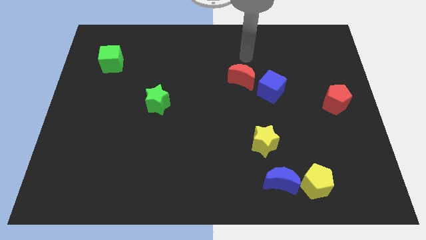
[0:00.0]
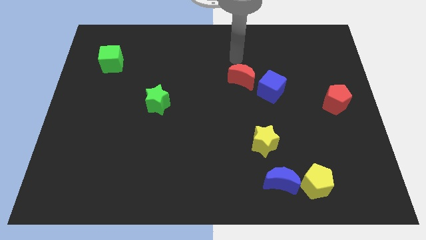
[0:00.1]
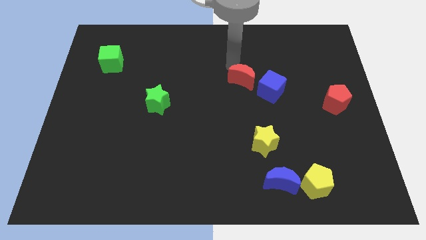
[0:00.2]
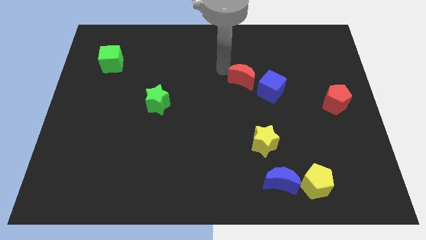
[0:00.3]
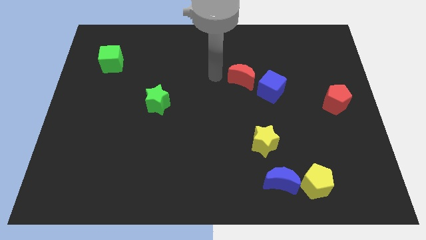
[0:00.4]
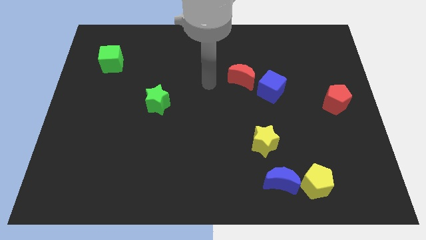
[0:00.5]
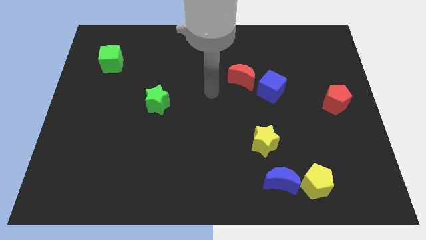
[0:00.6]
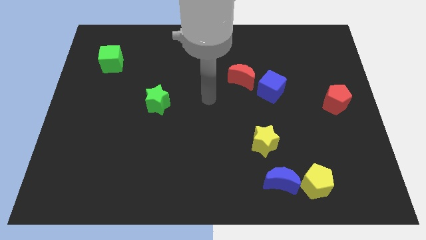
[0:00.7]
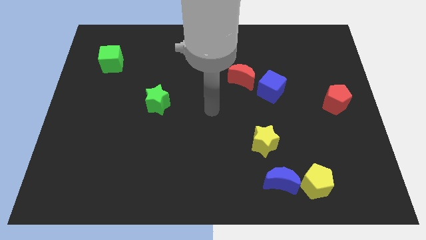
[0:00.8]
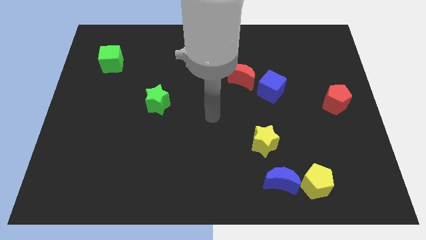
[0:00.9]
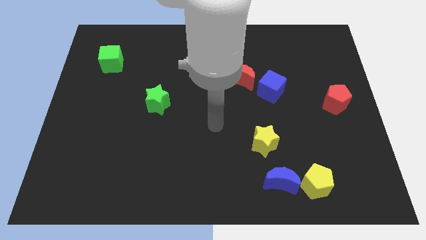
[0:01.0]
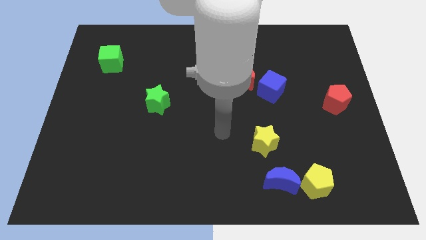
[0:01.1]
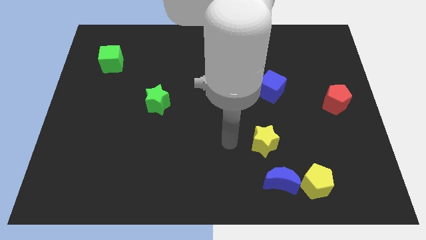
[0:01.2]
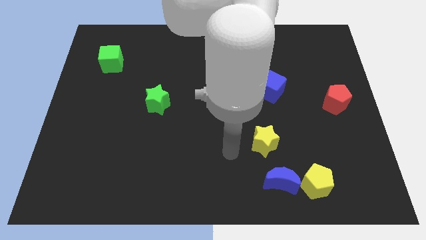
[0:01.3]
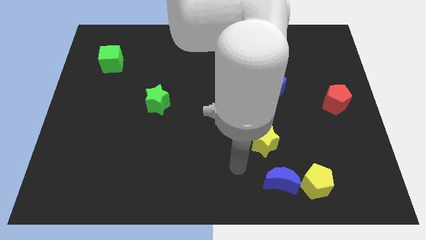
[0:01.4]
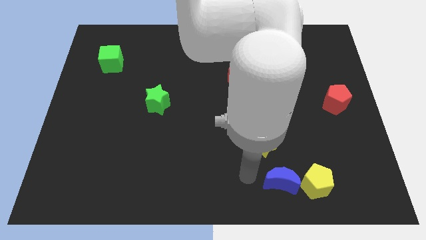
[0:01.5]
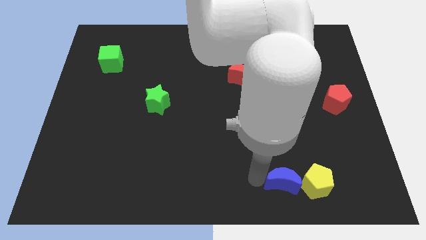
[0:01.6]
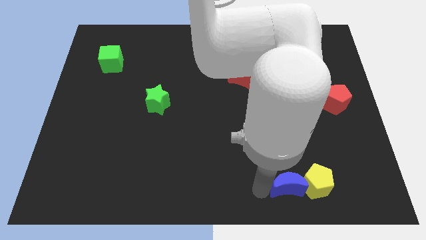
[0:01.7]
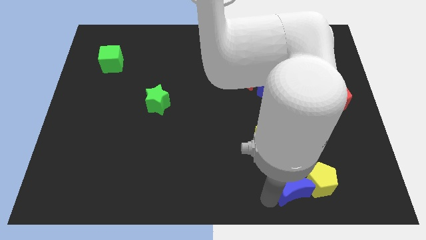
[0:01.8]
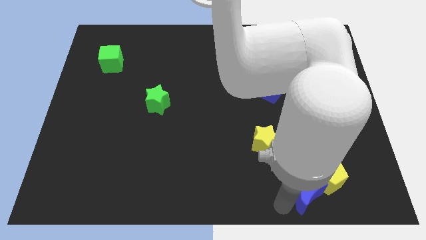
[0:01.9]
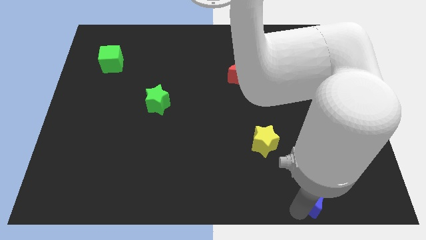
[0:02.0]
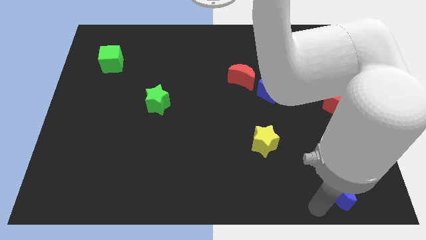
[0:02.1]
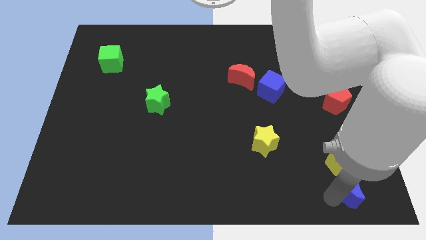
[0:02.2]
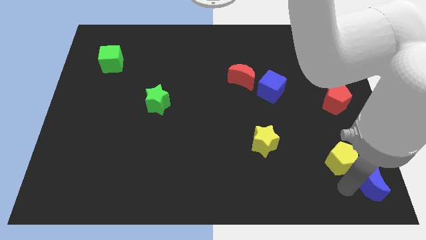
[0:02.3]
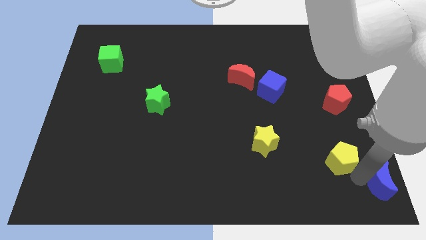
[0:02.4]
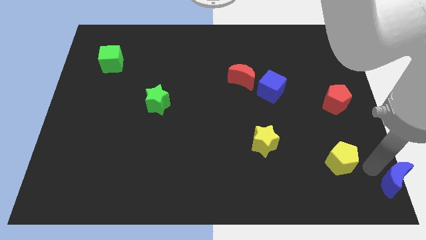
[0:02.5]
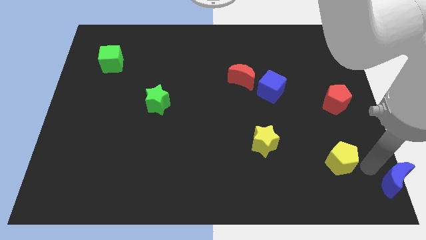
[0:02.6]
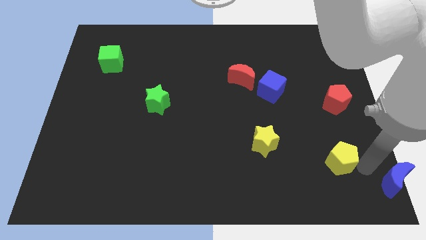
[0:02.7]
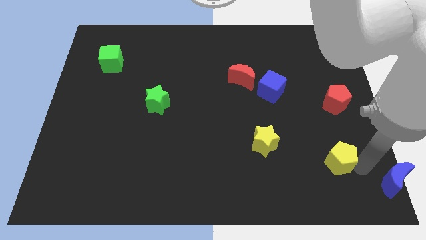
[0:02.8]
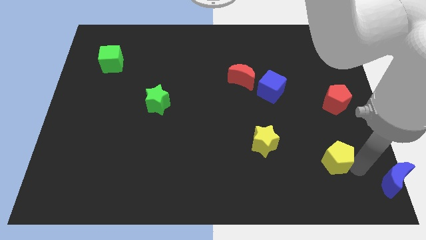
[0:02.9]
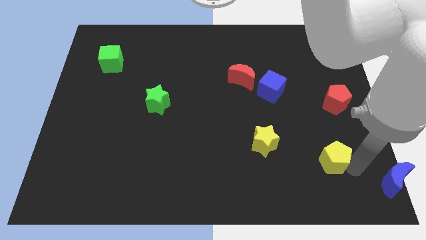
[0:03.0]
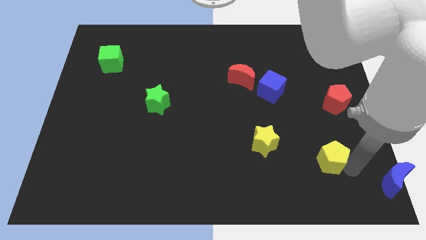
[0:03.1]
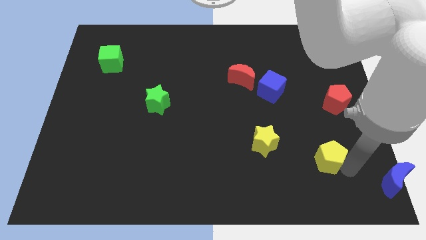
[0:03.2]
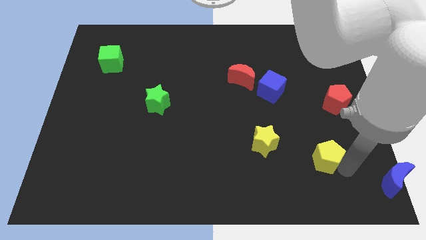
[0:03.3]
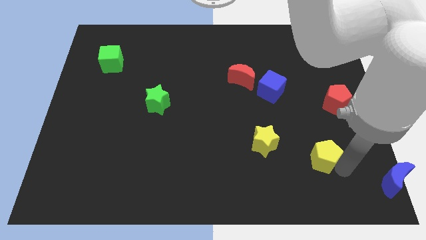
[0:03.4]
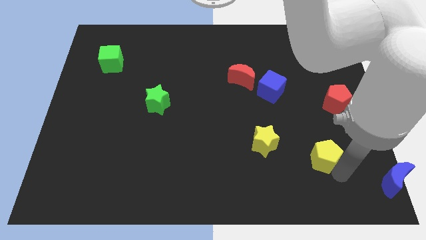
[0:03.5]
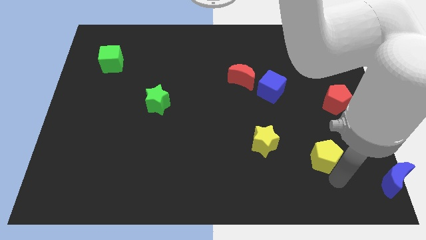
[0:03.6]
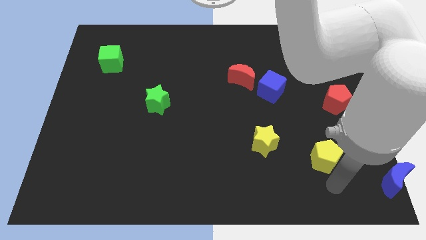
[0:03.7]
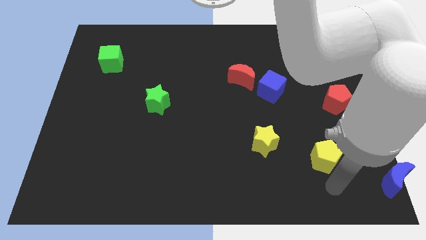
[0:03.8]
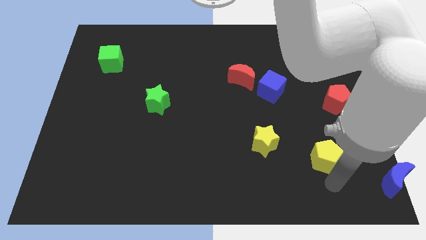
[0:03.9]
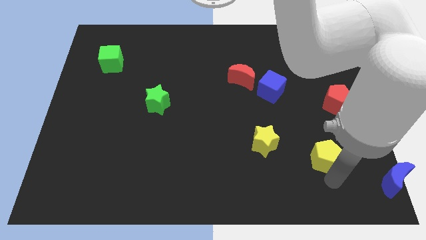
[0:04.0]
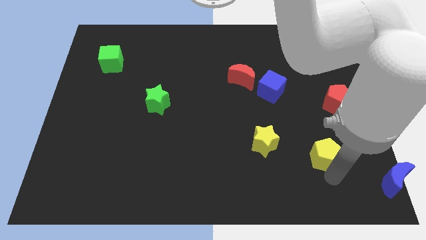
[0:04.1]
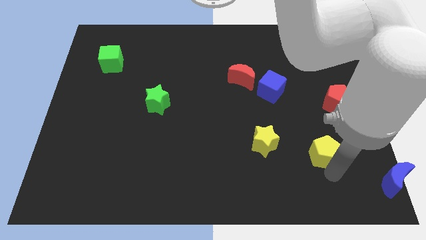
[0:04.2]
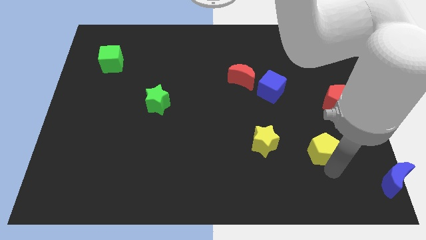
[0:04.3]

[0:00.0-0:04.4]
push the yellow pentagon upwards a little bit

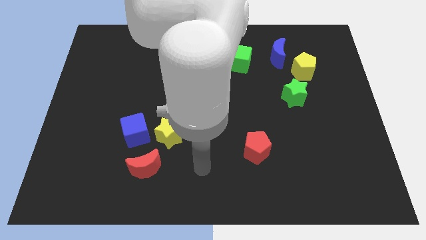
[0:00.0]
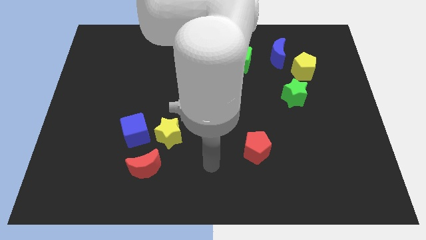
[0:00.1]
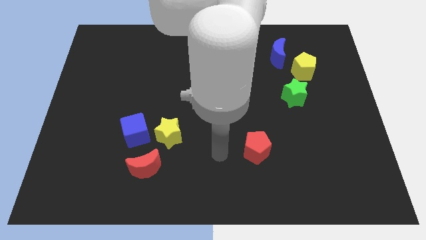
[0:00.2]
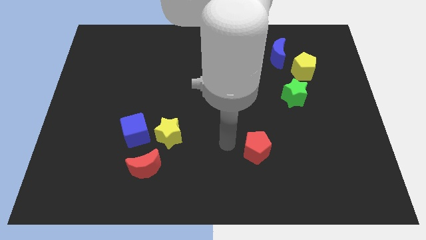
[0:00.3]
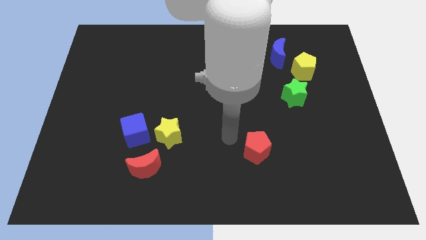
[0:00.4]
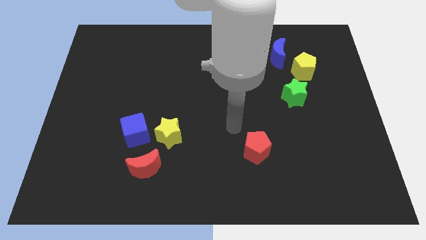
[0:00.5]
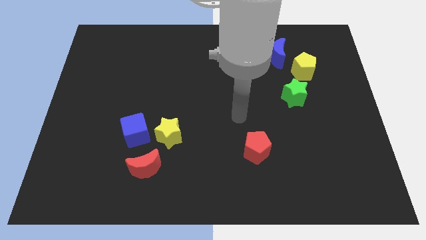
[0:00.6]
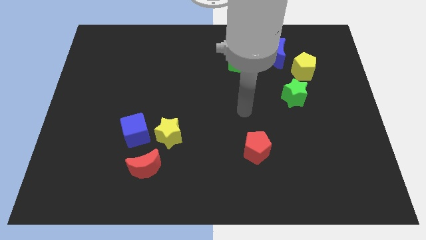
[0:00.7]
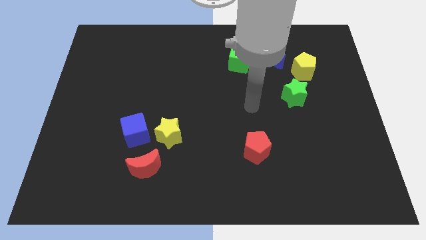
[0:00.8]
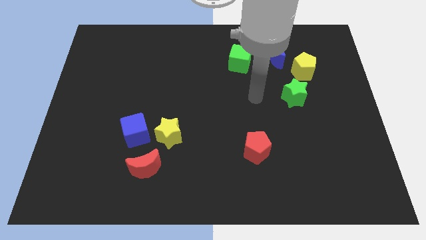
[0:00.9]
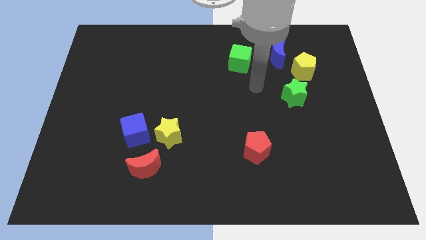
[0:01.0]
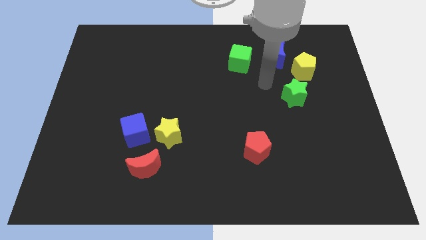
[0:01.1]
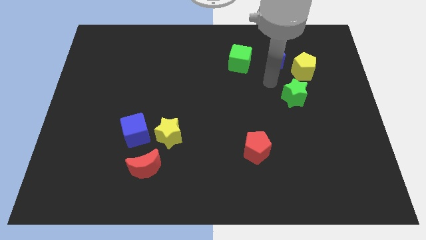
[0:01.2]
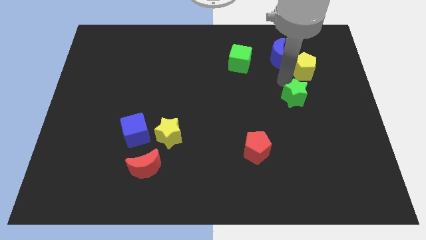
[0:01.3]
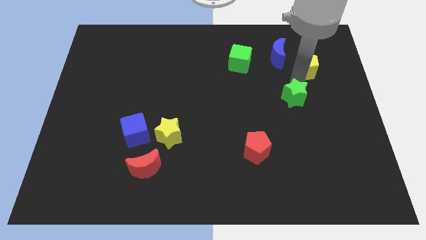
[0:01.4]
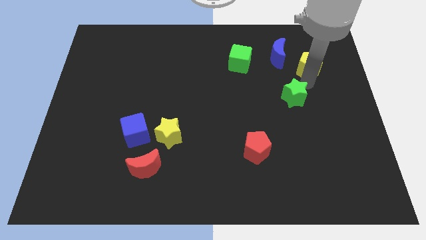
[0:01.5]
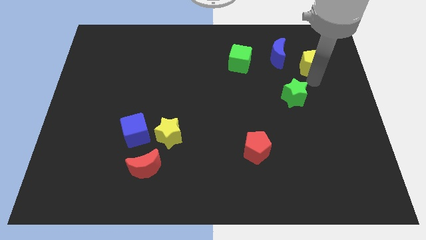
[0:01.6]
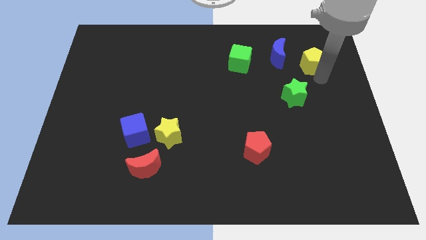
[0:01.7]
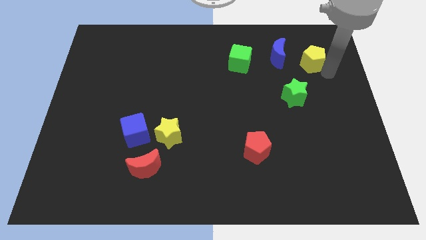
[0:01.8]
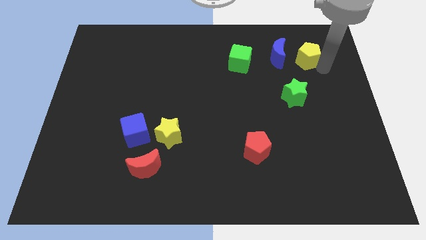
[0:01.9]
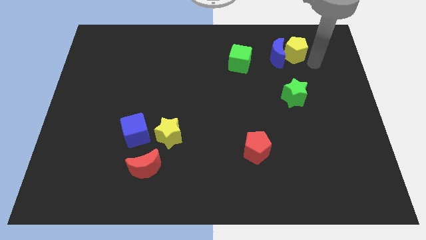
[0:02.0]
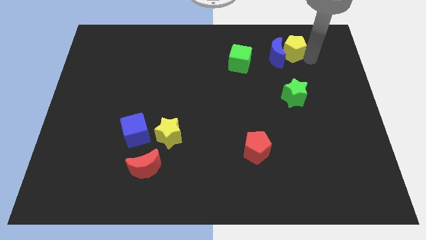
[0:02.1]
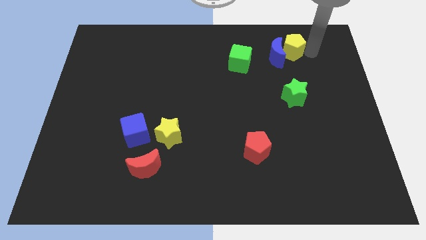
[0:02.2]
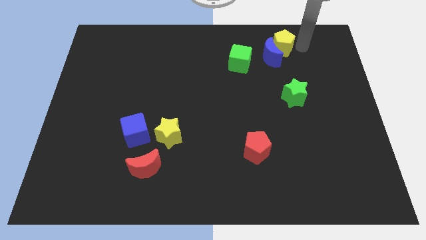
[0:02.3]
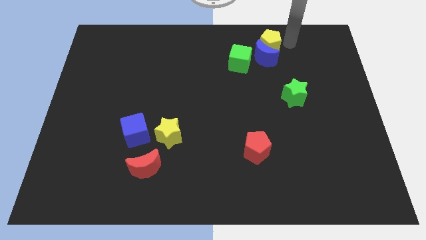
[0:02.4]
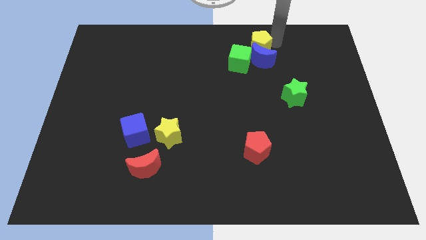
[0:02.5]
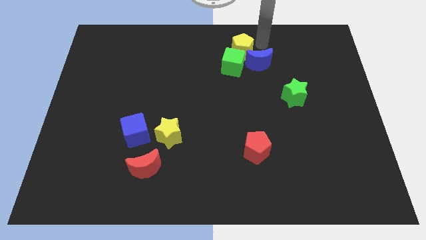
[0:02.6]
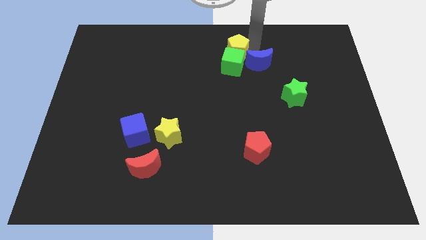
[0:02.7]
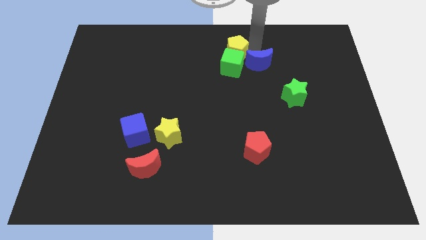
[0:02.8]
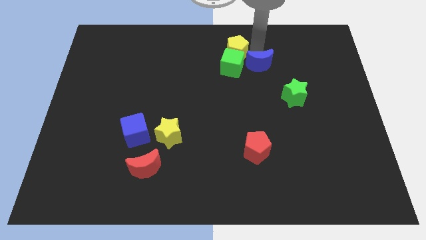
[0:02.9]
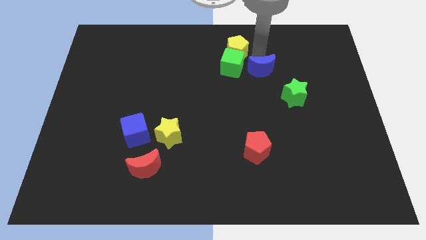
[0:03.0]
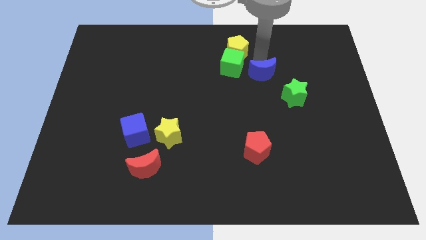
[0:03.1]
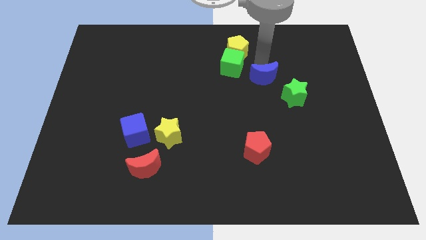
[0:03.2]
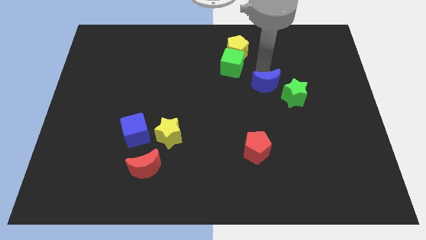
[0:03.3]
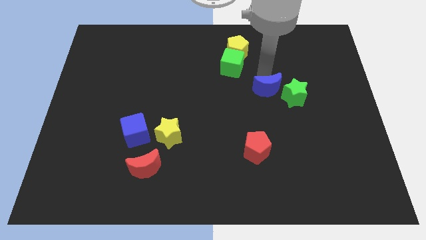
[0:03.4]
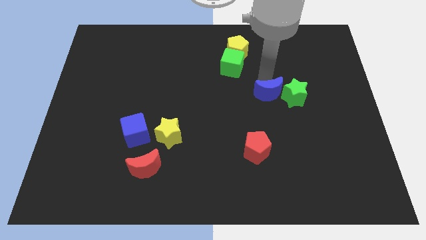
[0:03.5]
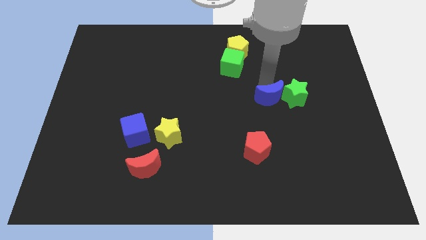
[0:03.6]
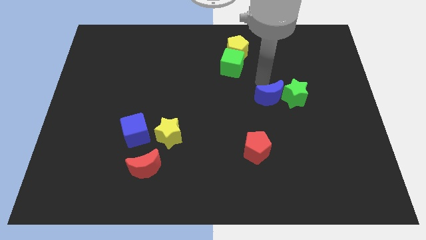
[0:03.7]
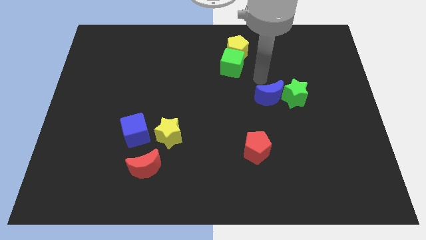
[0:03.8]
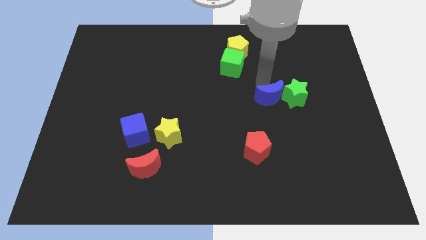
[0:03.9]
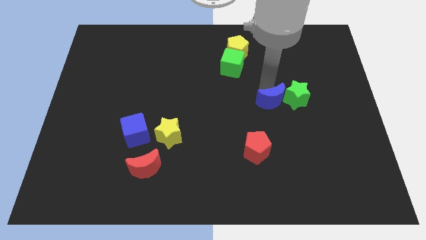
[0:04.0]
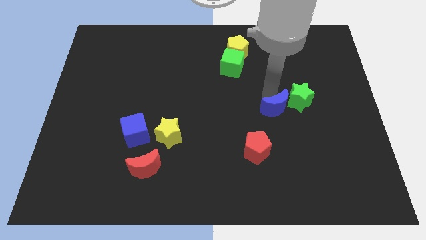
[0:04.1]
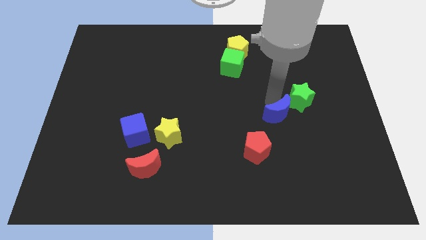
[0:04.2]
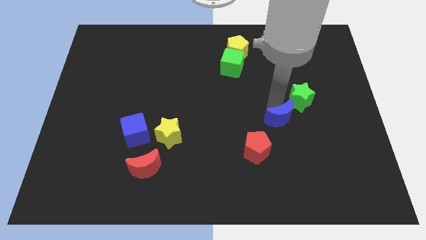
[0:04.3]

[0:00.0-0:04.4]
push the blue moon down
